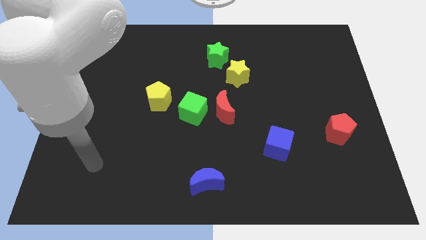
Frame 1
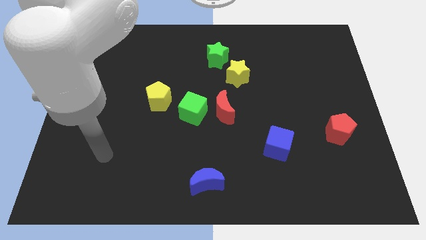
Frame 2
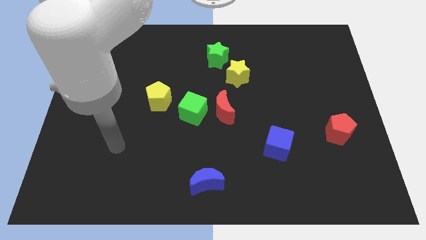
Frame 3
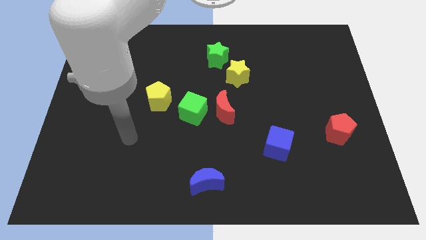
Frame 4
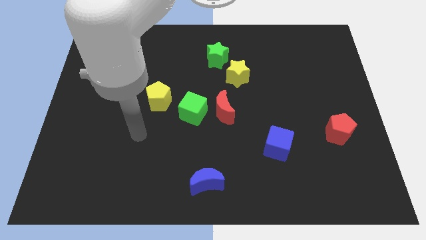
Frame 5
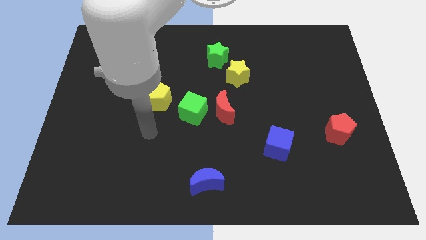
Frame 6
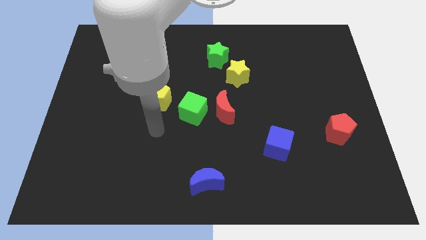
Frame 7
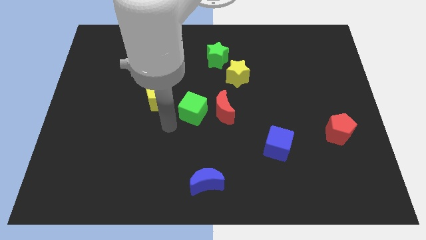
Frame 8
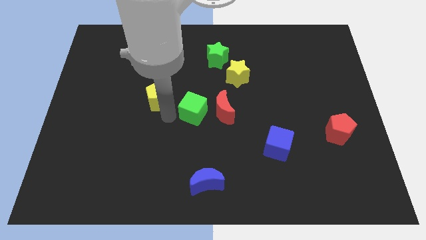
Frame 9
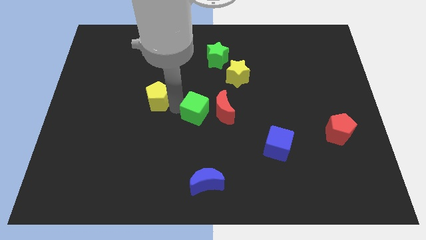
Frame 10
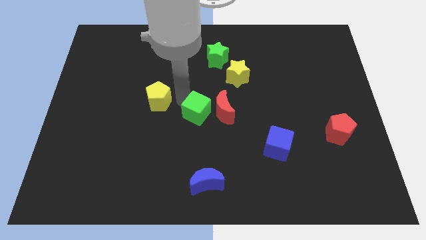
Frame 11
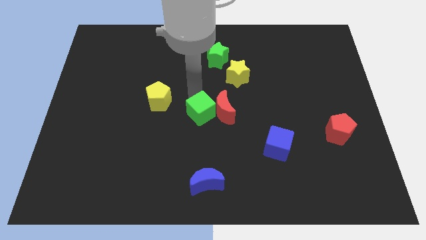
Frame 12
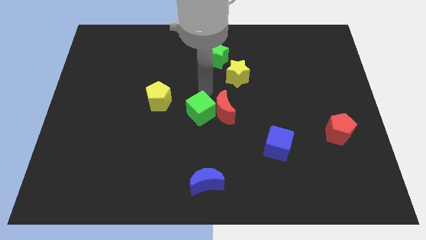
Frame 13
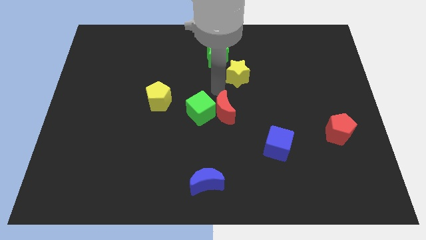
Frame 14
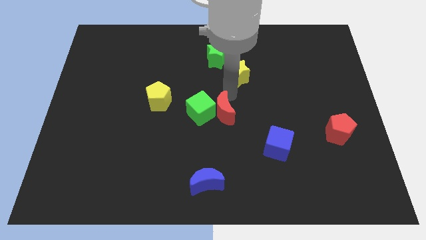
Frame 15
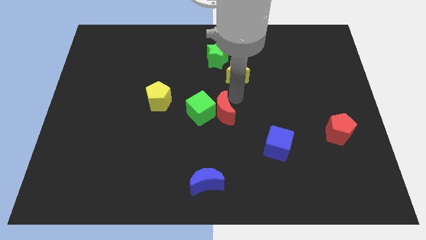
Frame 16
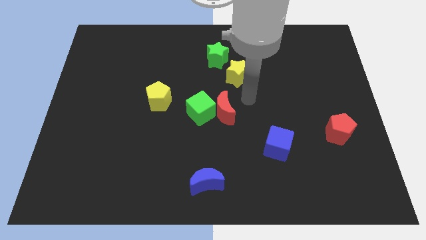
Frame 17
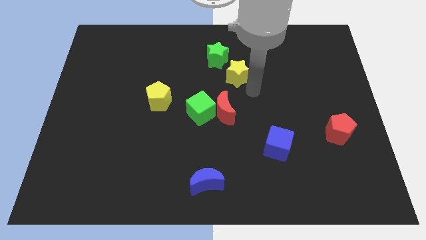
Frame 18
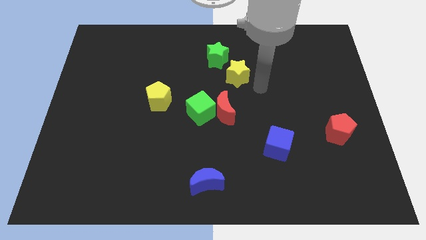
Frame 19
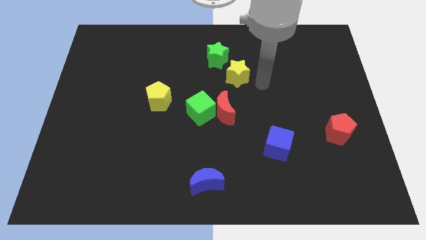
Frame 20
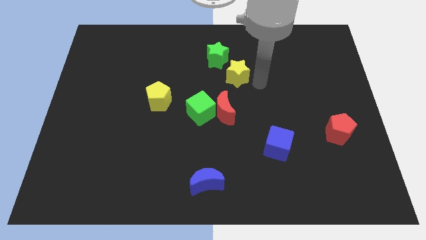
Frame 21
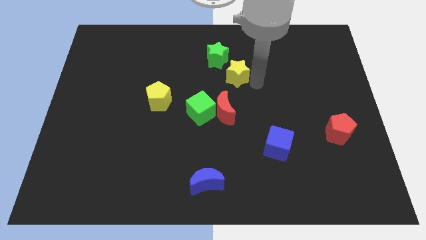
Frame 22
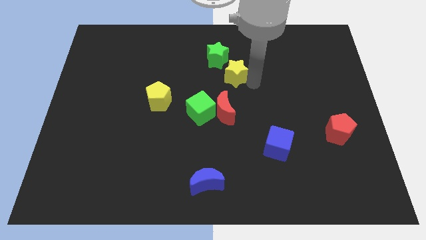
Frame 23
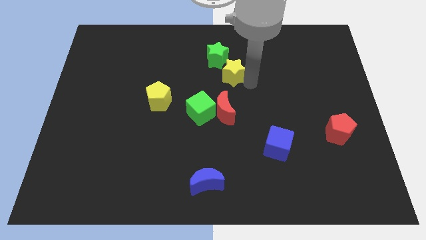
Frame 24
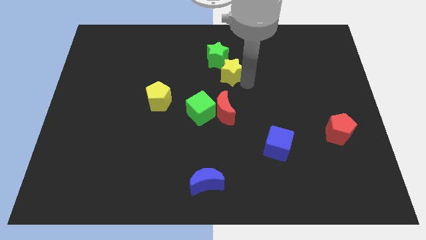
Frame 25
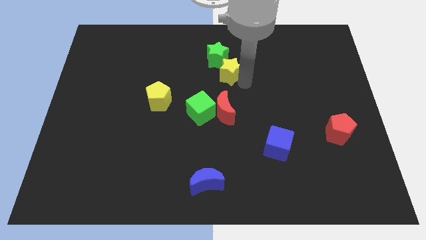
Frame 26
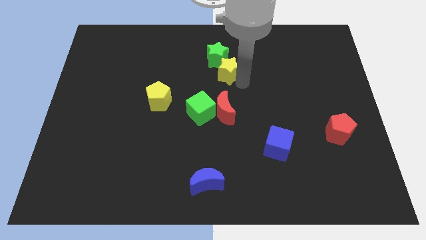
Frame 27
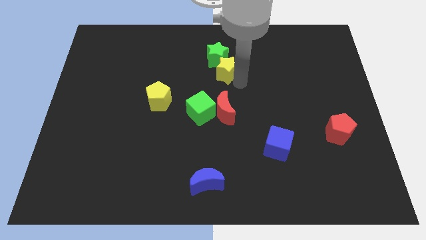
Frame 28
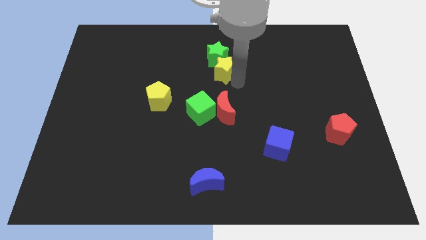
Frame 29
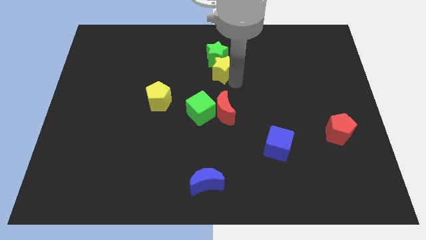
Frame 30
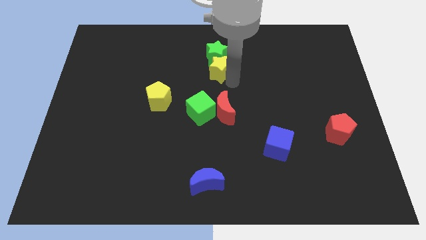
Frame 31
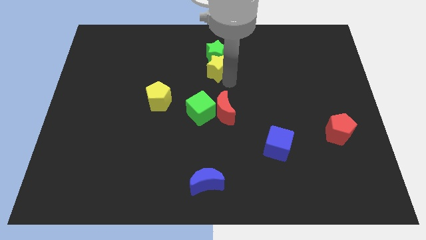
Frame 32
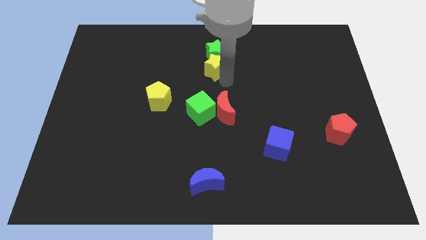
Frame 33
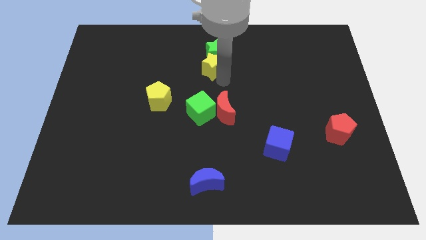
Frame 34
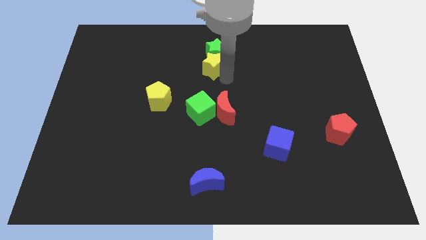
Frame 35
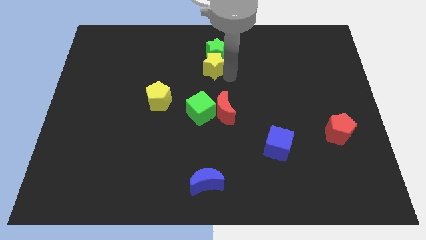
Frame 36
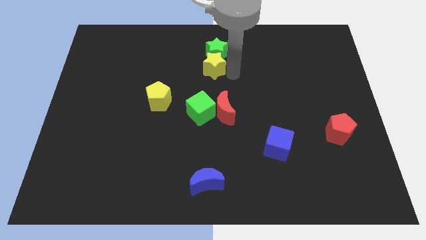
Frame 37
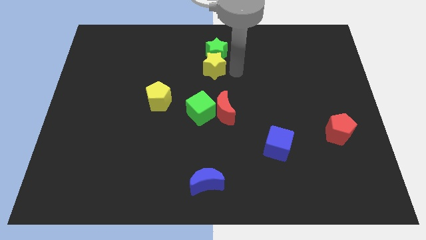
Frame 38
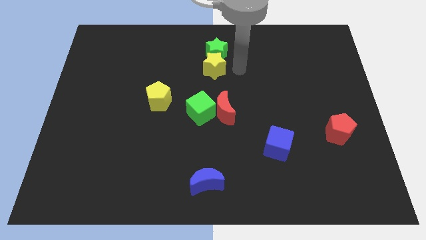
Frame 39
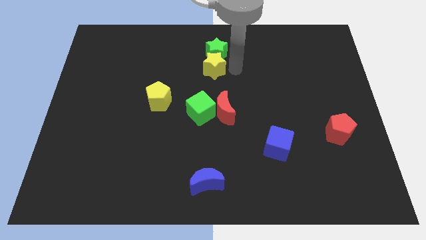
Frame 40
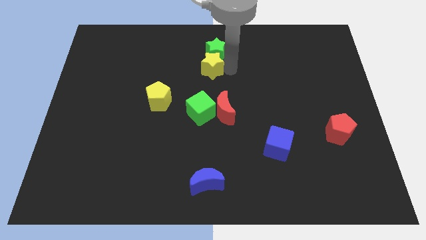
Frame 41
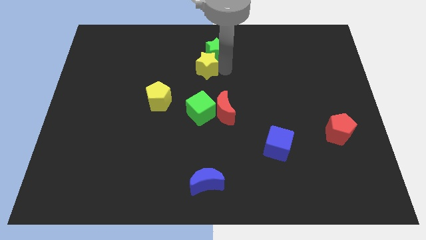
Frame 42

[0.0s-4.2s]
push the yellow star a little left

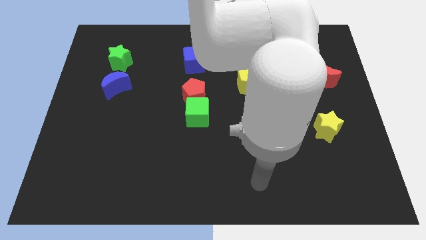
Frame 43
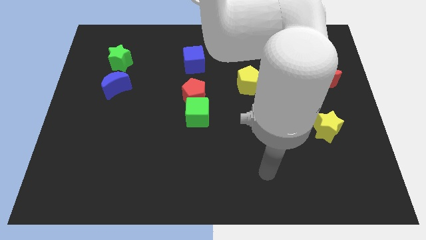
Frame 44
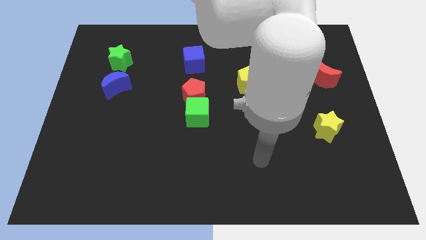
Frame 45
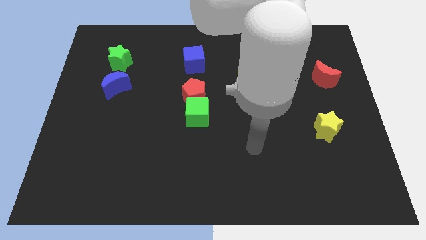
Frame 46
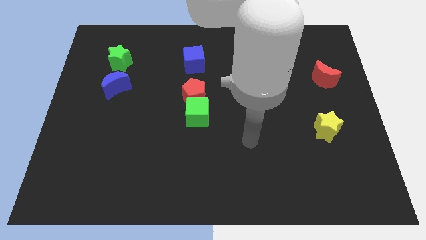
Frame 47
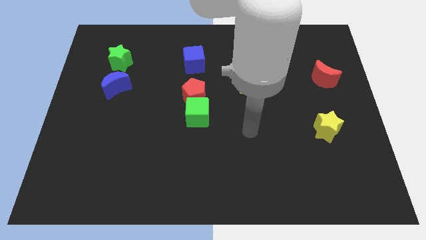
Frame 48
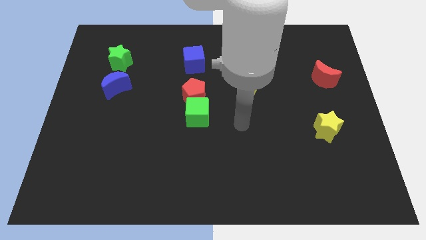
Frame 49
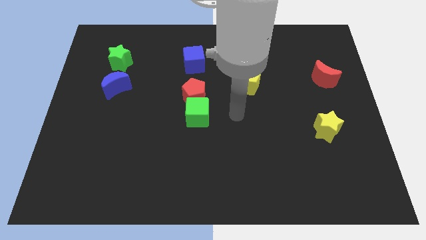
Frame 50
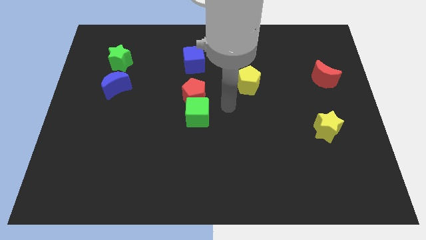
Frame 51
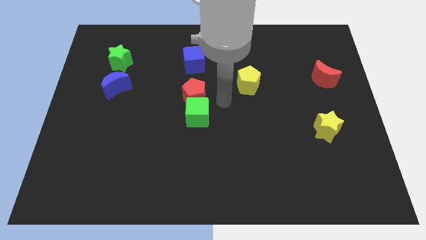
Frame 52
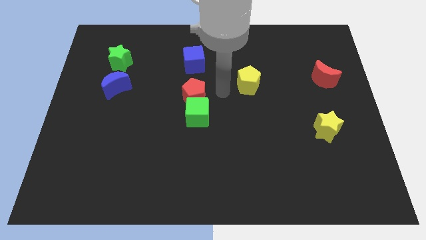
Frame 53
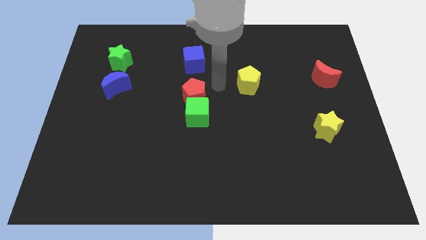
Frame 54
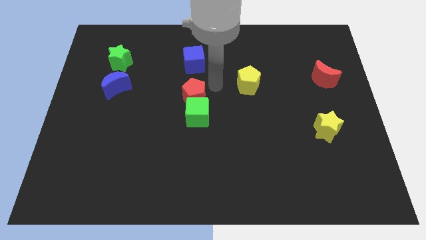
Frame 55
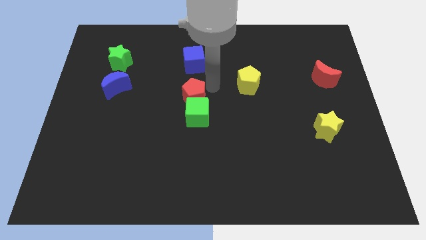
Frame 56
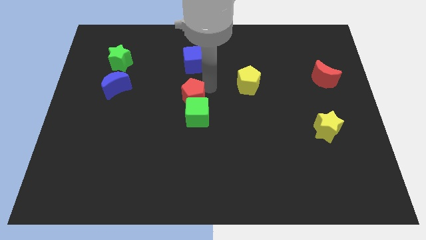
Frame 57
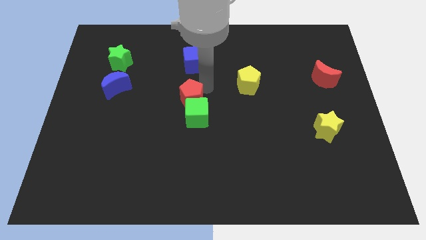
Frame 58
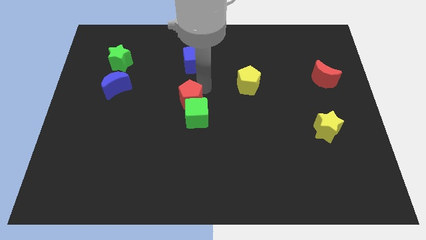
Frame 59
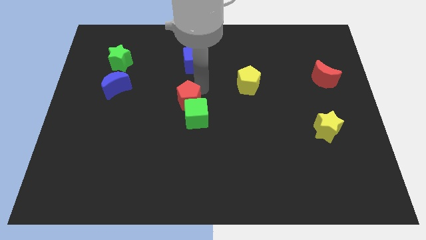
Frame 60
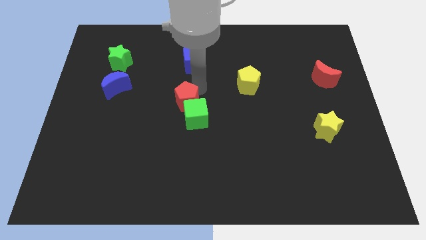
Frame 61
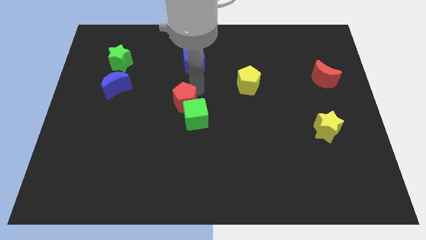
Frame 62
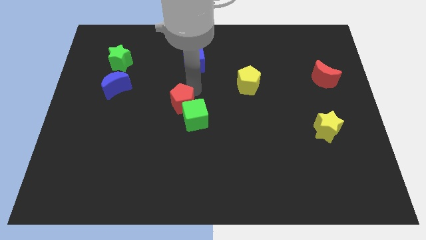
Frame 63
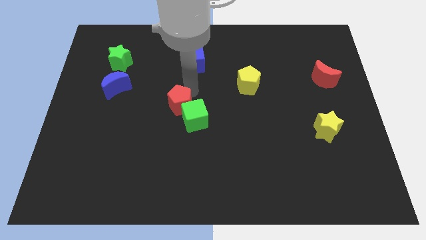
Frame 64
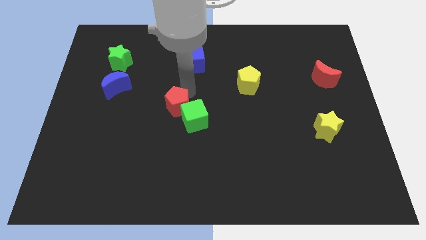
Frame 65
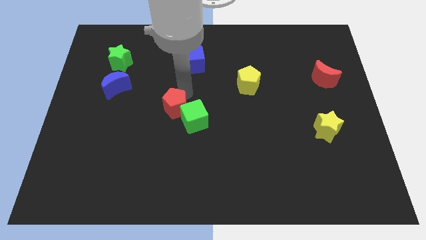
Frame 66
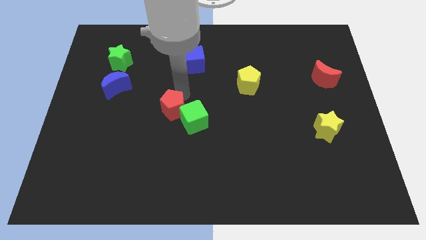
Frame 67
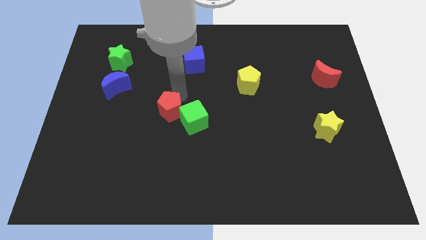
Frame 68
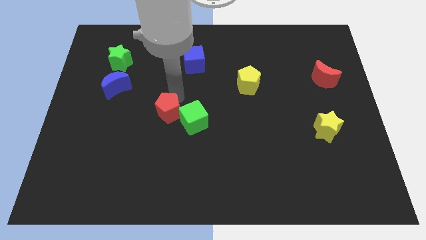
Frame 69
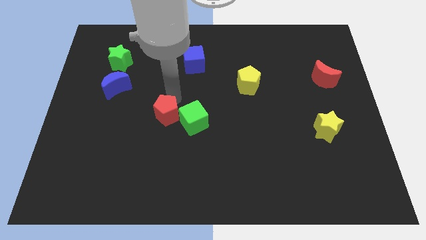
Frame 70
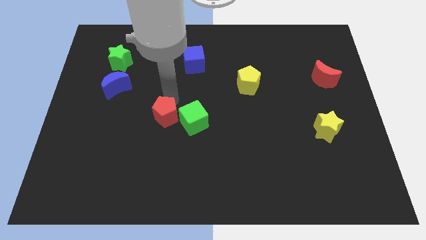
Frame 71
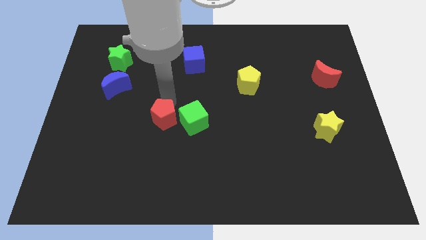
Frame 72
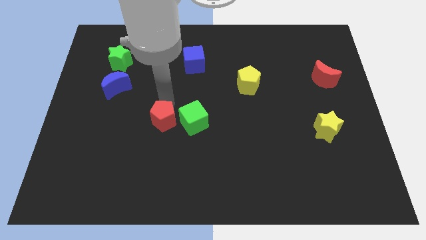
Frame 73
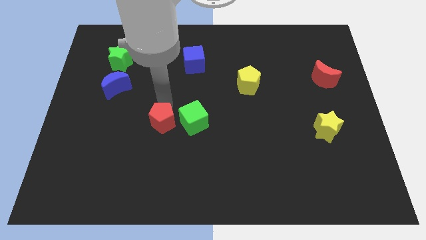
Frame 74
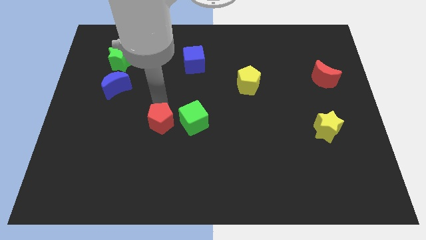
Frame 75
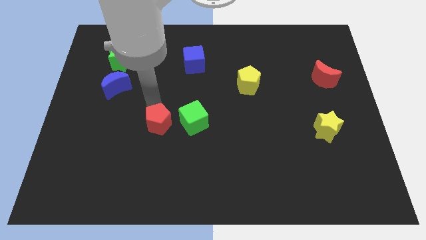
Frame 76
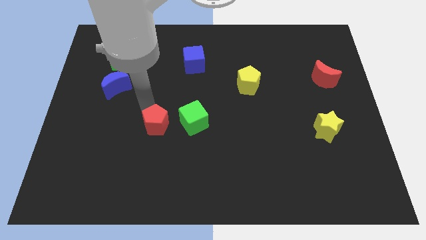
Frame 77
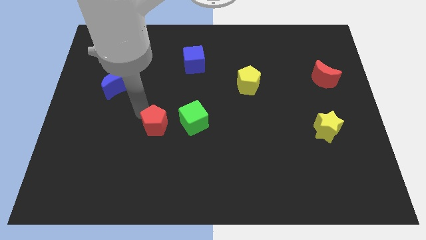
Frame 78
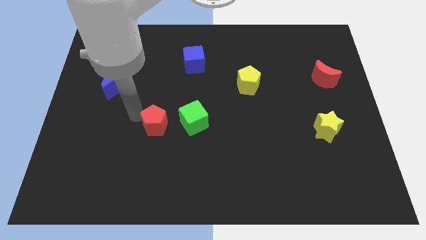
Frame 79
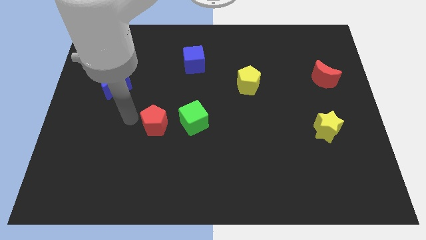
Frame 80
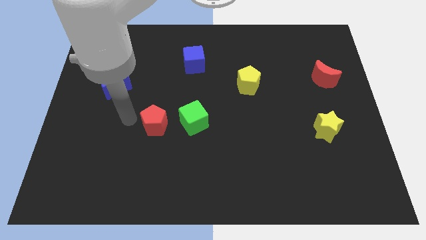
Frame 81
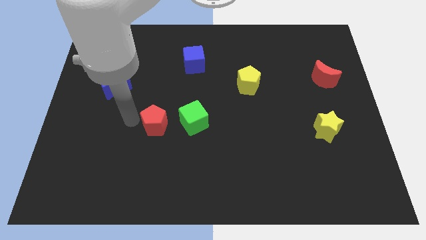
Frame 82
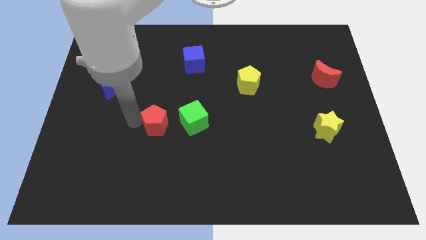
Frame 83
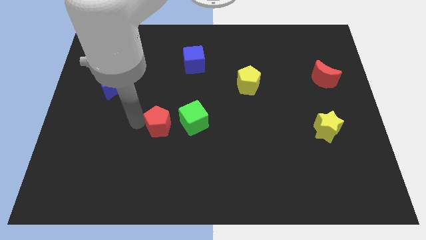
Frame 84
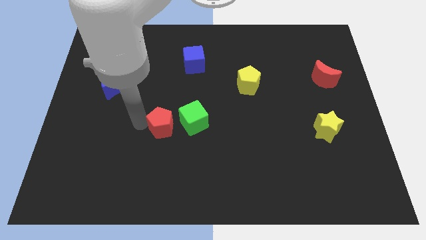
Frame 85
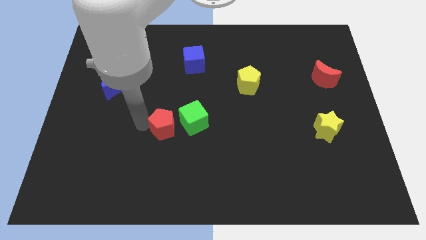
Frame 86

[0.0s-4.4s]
slide the red pentagon downwards somewhat
